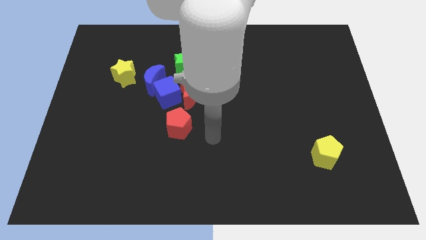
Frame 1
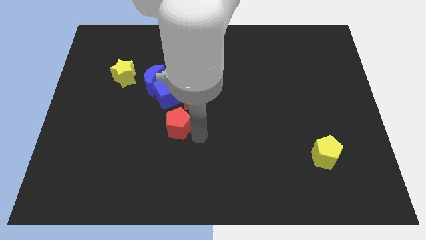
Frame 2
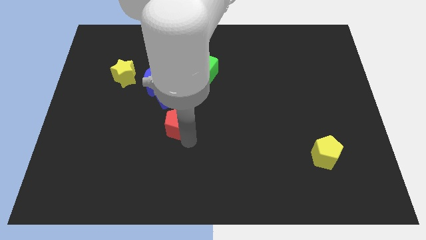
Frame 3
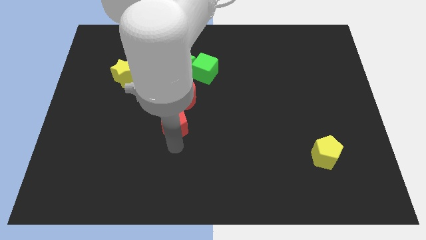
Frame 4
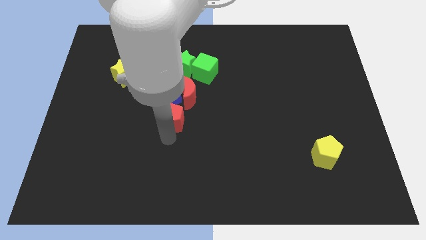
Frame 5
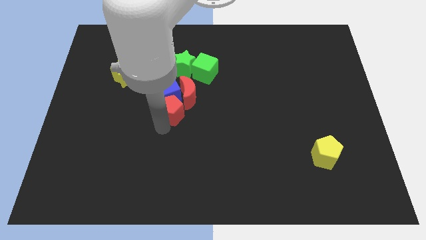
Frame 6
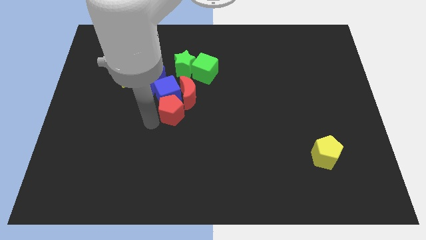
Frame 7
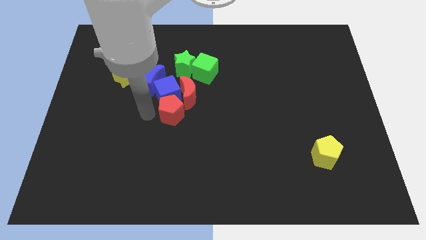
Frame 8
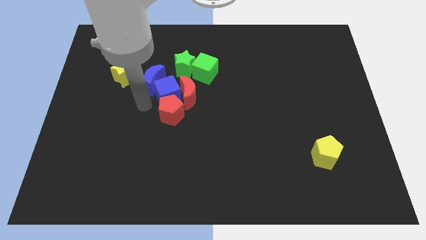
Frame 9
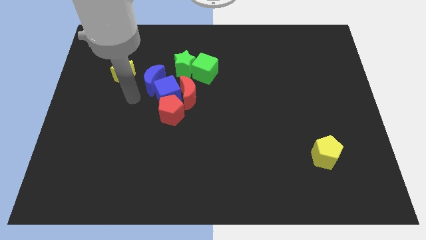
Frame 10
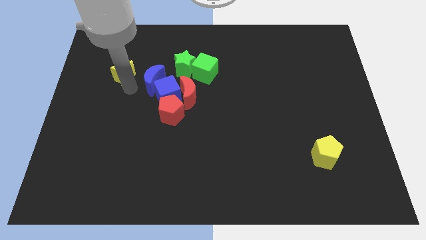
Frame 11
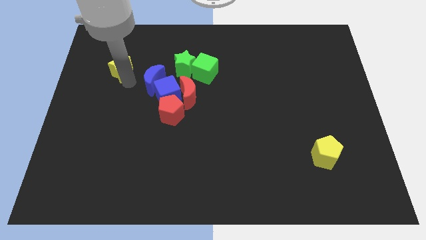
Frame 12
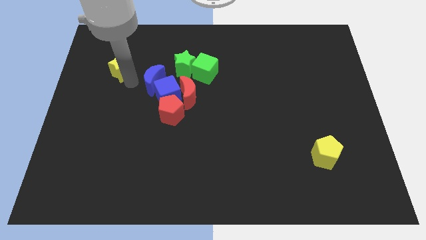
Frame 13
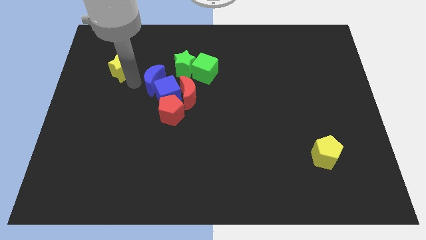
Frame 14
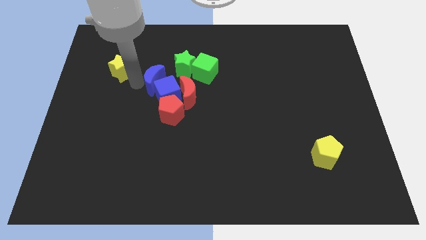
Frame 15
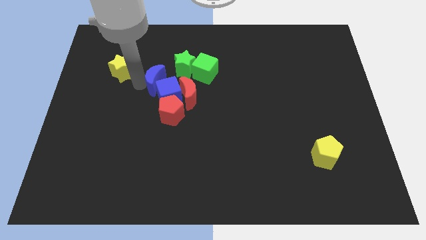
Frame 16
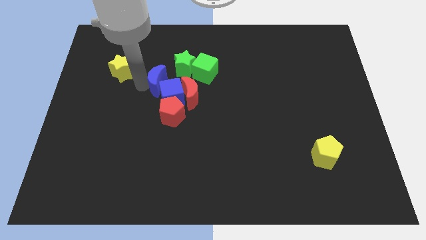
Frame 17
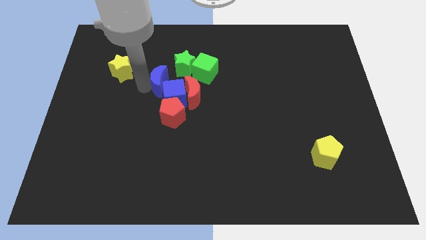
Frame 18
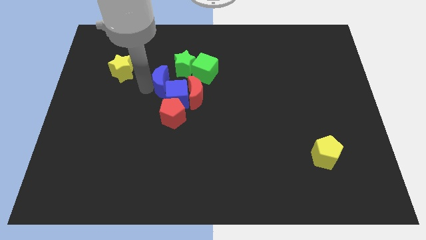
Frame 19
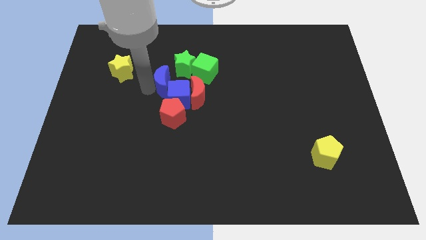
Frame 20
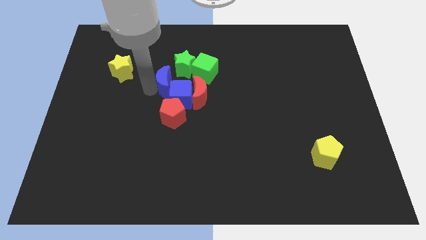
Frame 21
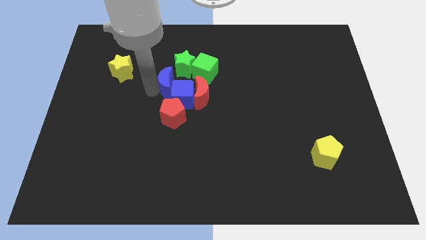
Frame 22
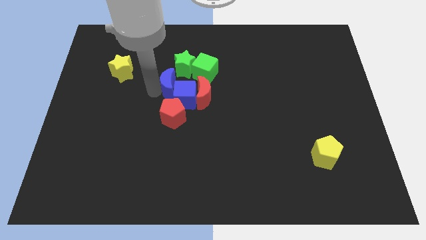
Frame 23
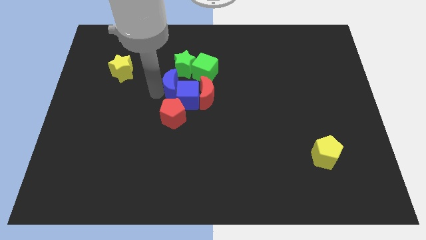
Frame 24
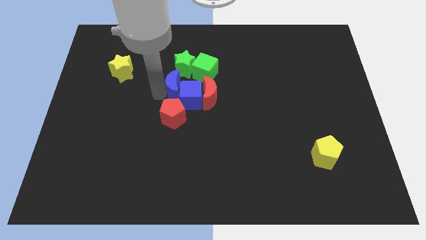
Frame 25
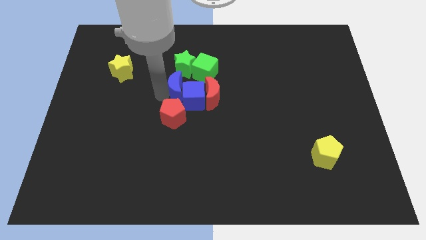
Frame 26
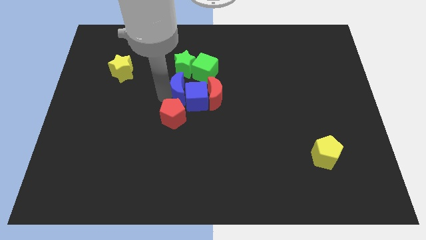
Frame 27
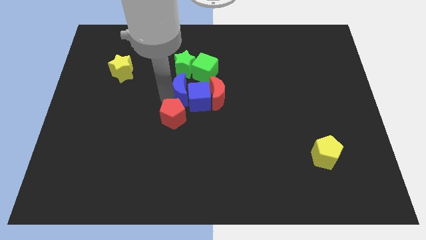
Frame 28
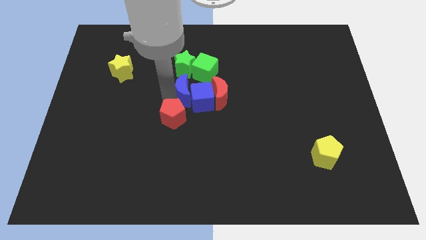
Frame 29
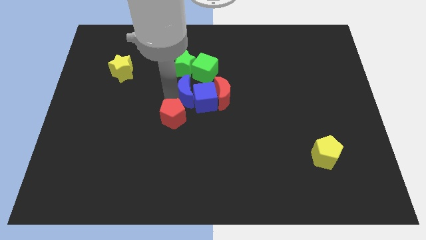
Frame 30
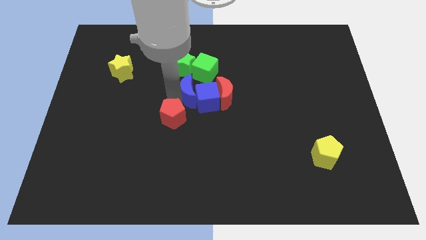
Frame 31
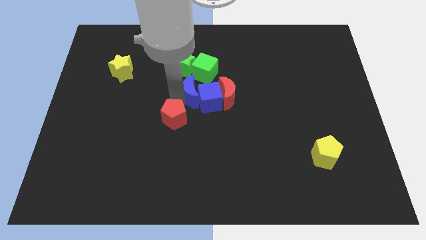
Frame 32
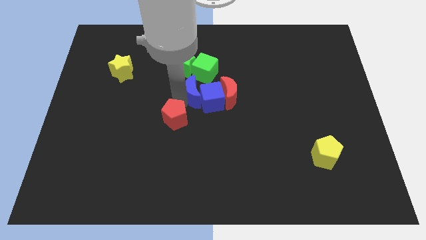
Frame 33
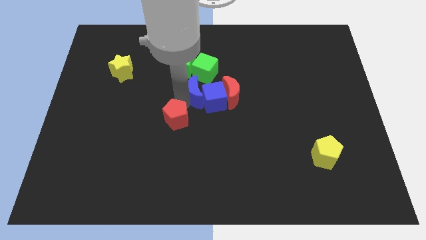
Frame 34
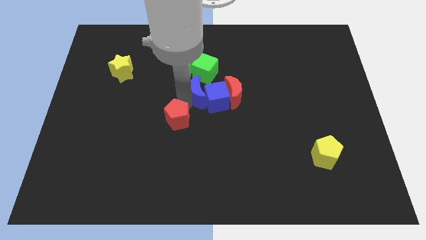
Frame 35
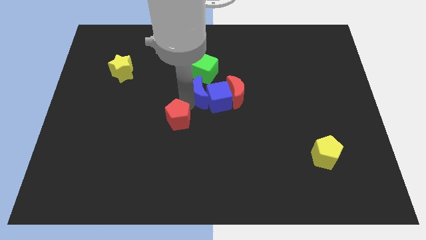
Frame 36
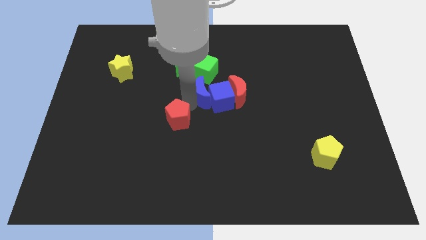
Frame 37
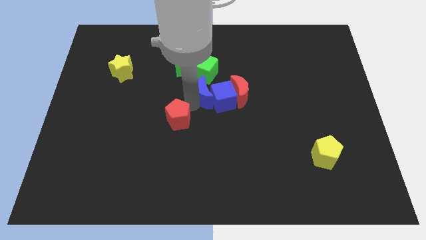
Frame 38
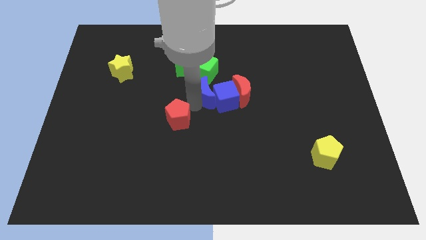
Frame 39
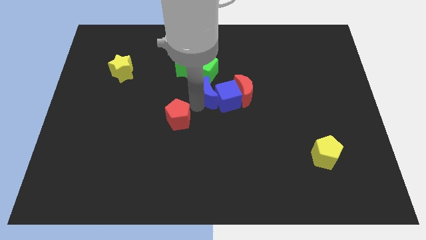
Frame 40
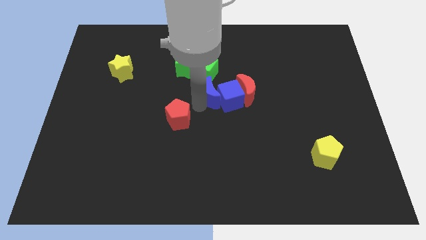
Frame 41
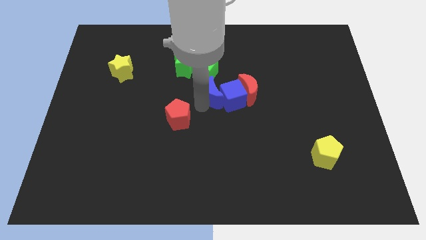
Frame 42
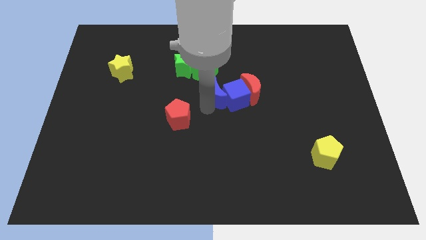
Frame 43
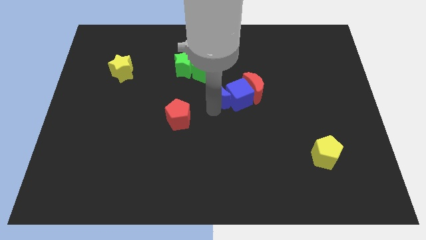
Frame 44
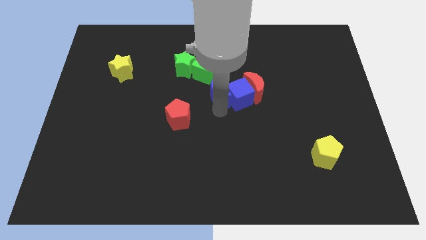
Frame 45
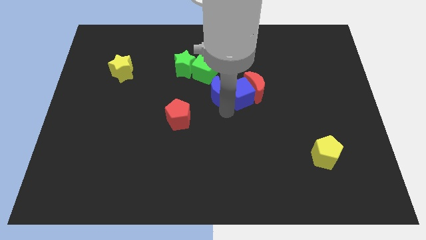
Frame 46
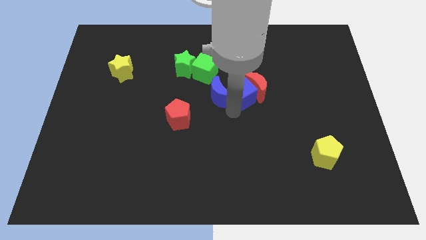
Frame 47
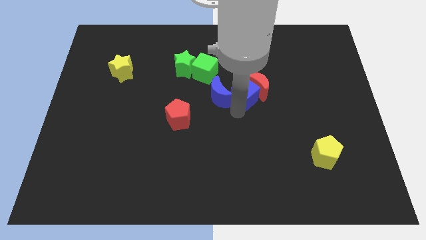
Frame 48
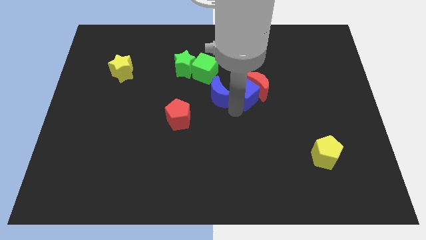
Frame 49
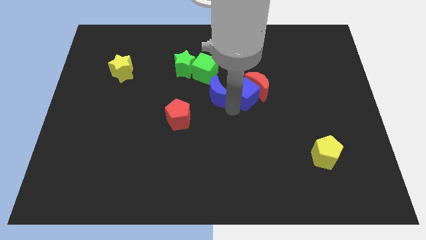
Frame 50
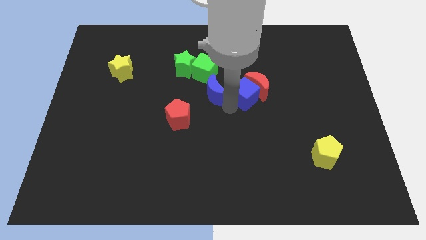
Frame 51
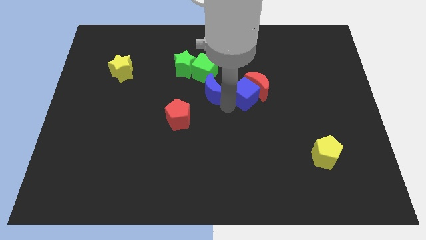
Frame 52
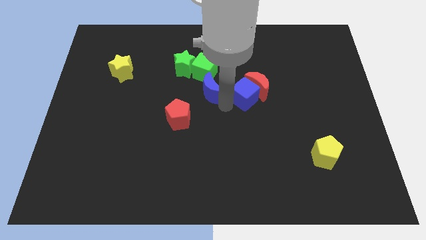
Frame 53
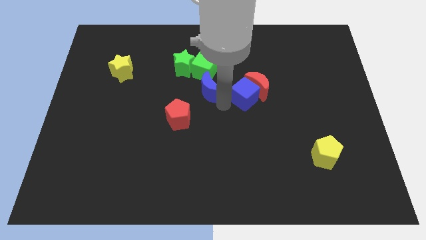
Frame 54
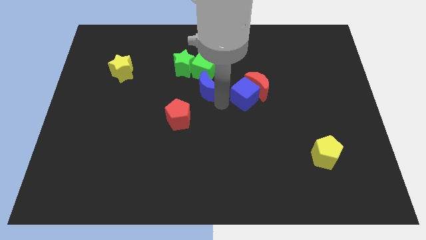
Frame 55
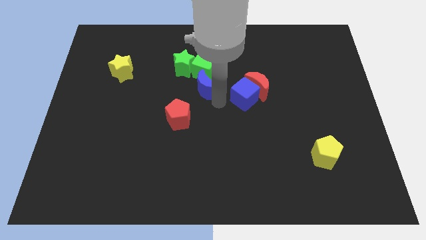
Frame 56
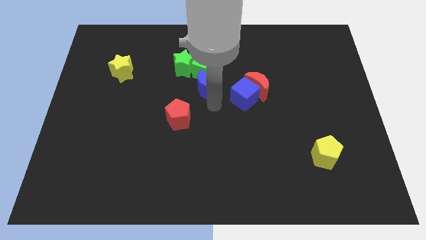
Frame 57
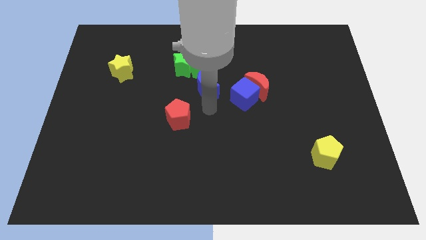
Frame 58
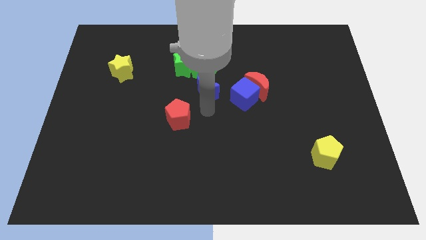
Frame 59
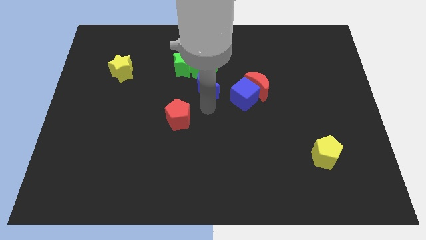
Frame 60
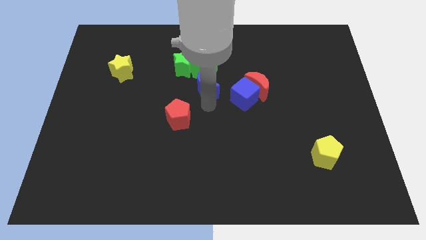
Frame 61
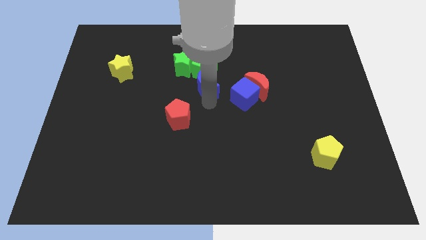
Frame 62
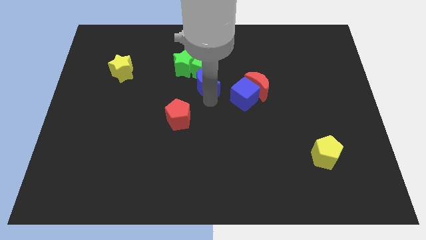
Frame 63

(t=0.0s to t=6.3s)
put the blue moon to the green cube

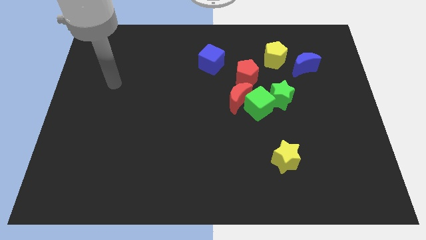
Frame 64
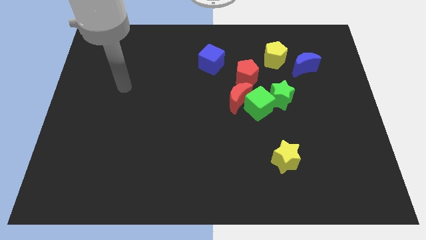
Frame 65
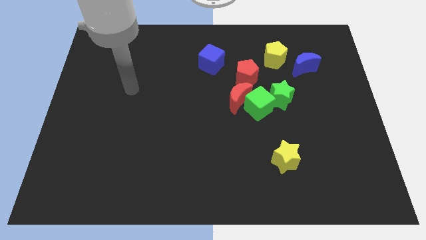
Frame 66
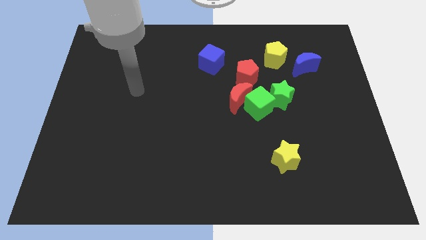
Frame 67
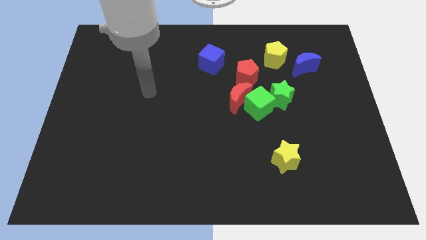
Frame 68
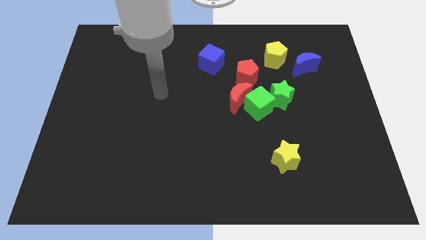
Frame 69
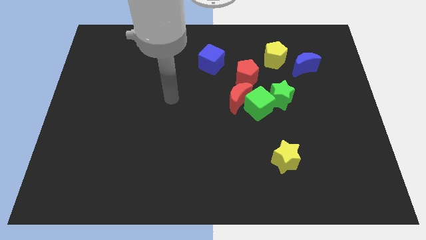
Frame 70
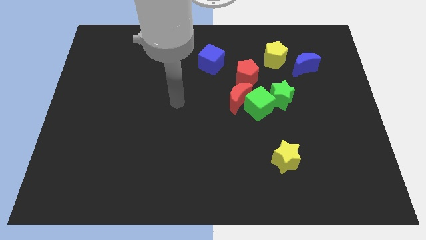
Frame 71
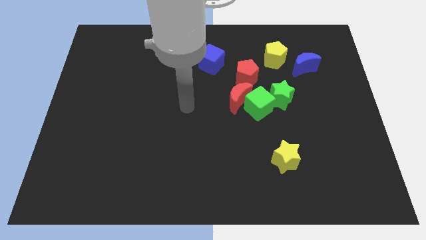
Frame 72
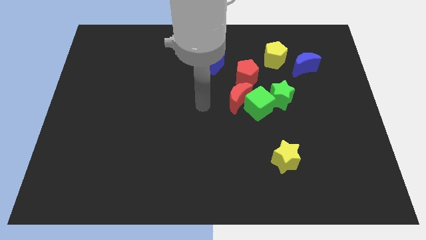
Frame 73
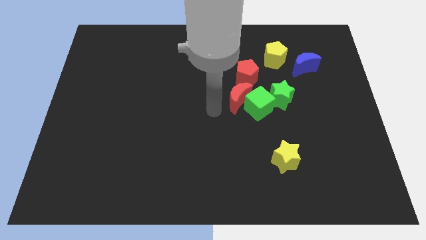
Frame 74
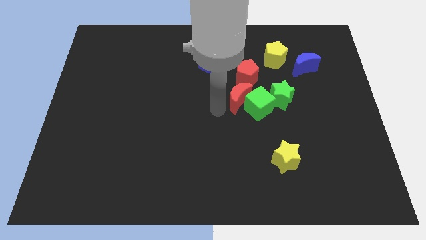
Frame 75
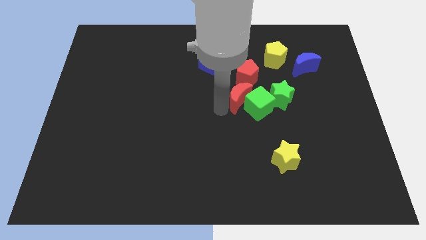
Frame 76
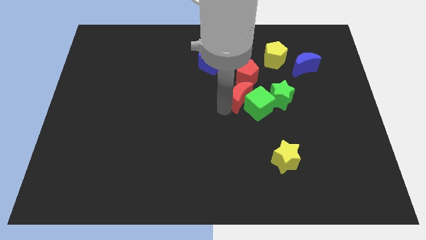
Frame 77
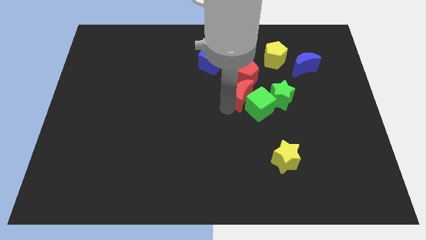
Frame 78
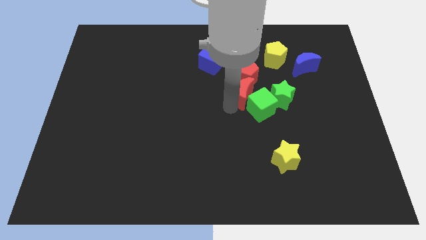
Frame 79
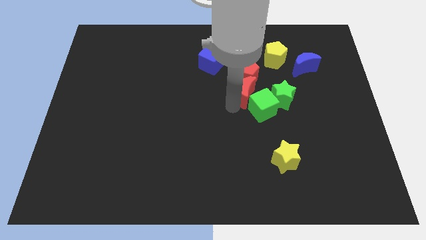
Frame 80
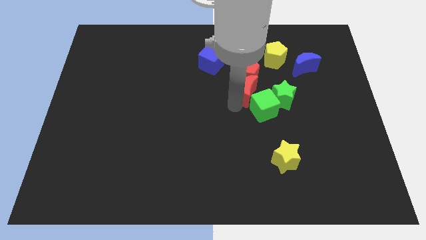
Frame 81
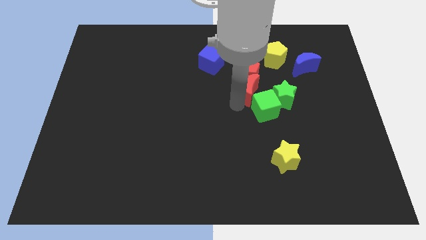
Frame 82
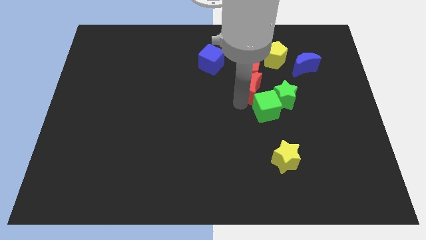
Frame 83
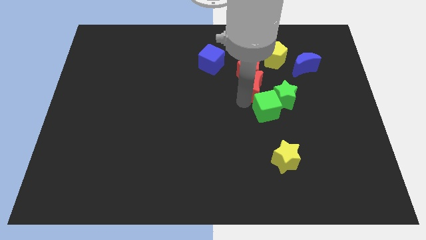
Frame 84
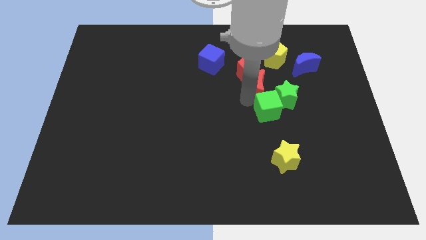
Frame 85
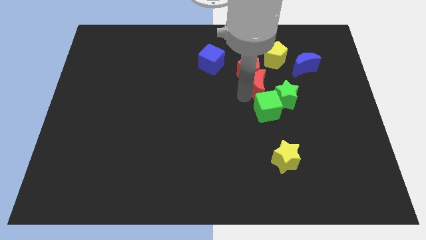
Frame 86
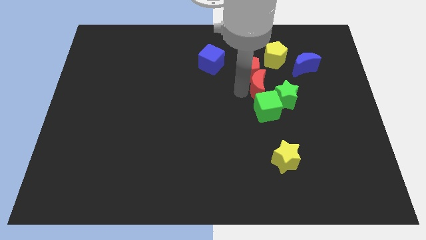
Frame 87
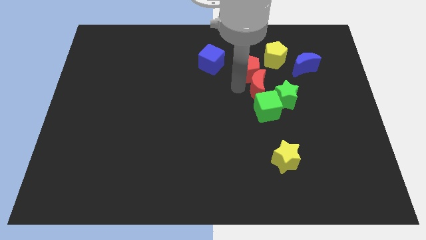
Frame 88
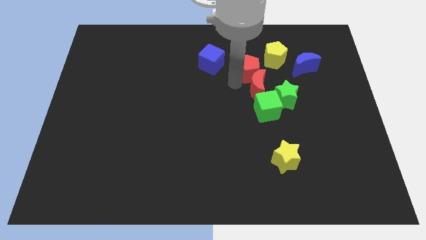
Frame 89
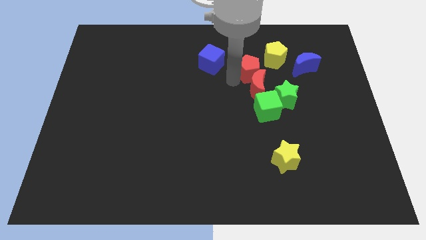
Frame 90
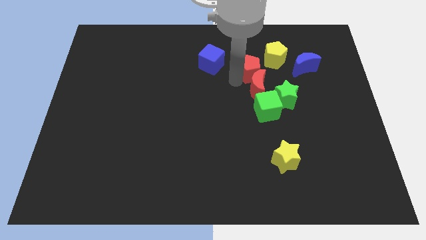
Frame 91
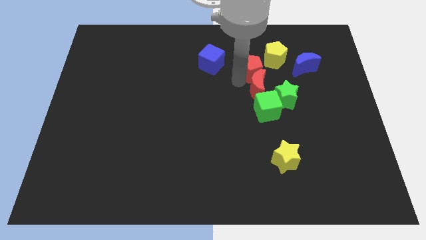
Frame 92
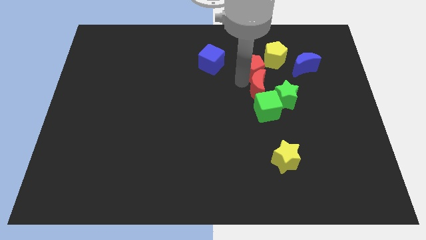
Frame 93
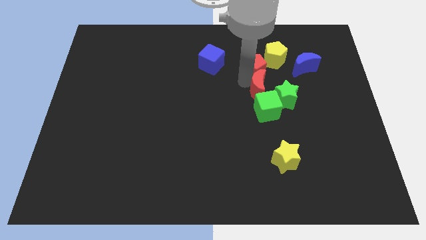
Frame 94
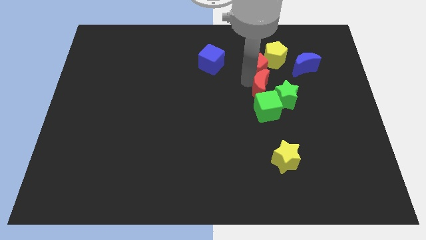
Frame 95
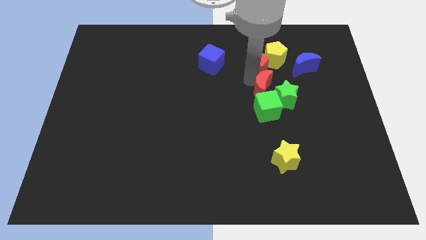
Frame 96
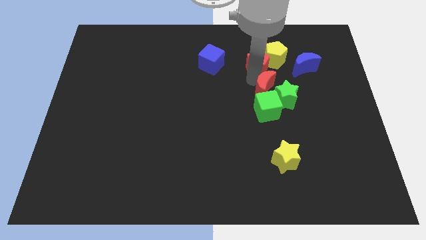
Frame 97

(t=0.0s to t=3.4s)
push the red moon towards the green star
